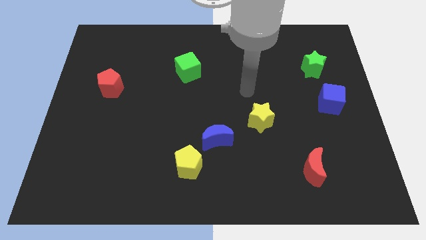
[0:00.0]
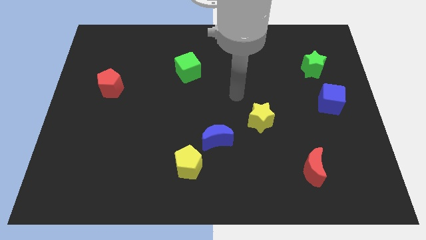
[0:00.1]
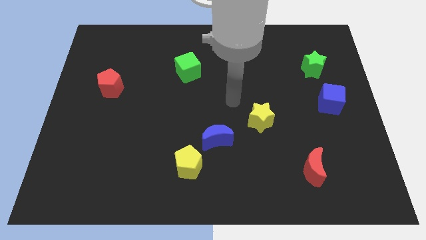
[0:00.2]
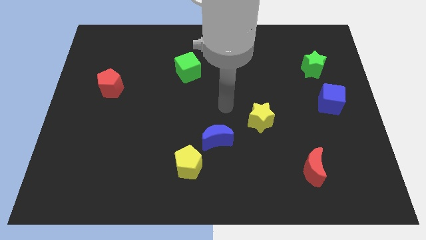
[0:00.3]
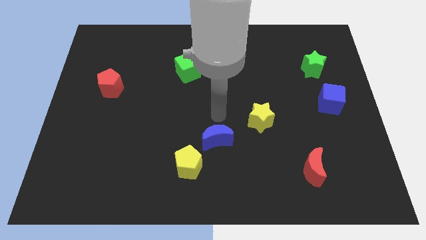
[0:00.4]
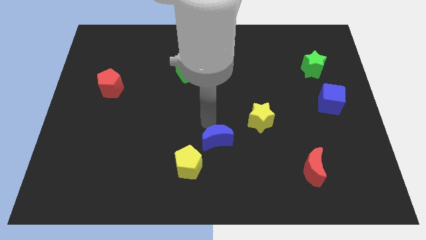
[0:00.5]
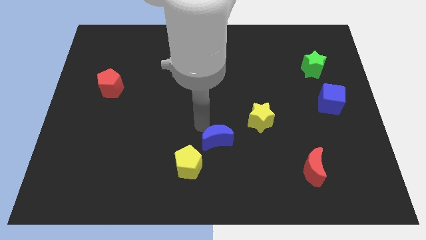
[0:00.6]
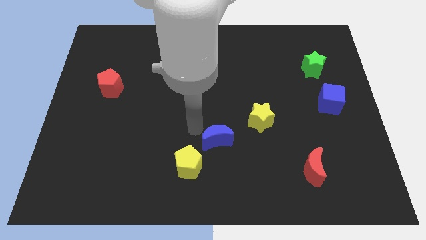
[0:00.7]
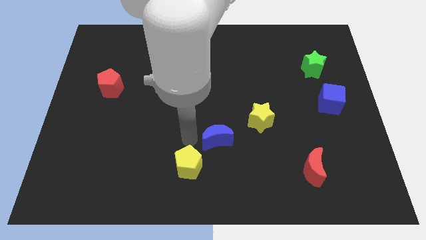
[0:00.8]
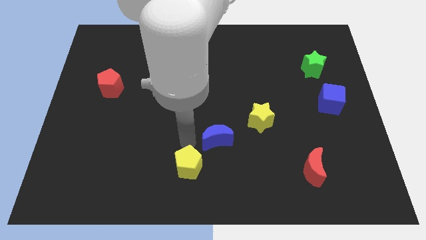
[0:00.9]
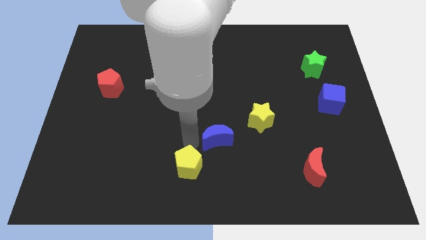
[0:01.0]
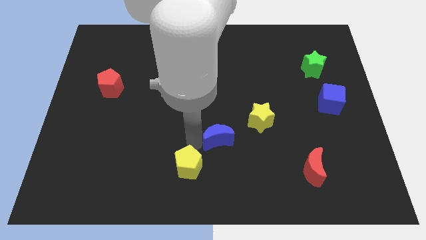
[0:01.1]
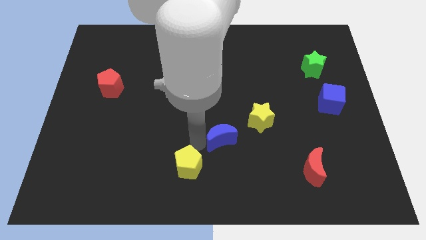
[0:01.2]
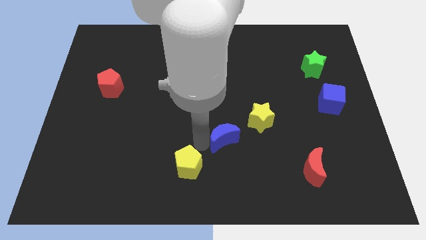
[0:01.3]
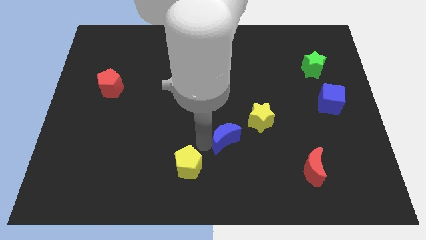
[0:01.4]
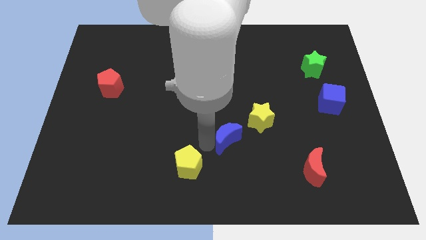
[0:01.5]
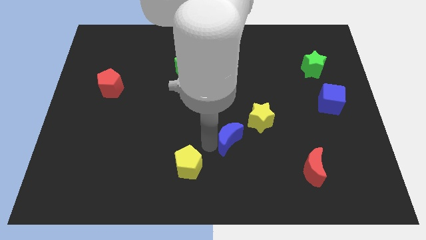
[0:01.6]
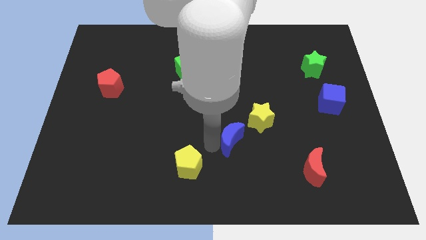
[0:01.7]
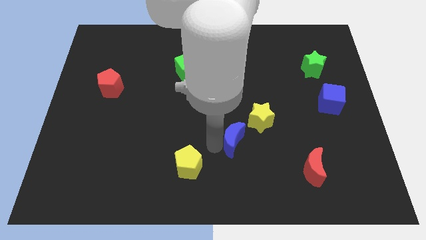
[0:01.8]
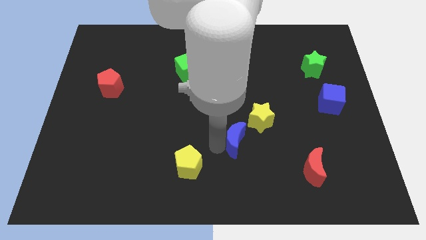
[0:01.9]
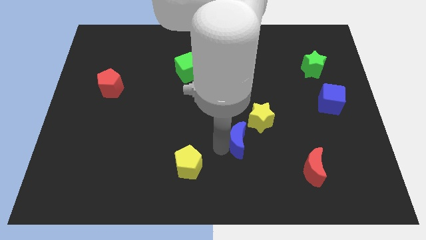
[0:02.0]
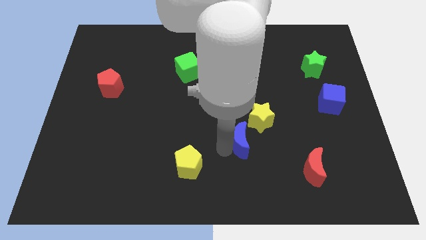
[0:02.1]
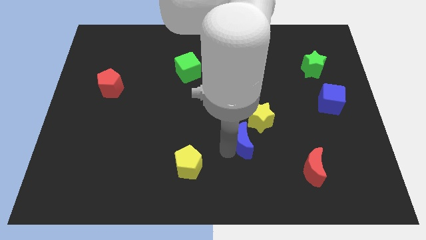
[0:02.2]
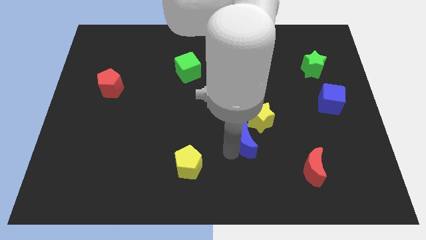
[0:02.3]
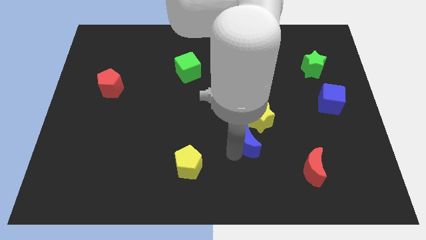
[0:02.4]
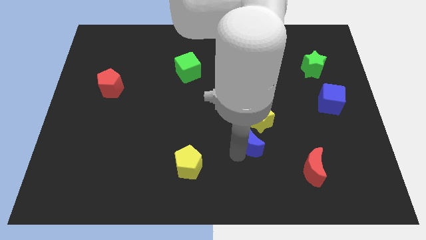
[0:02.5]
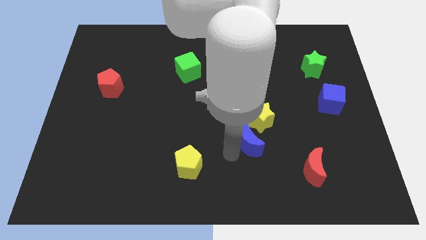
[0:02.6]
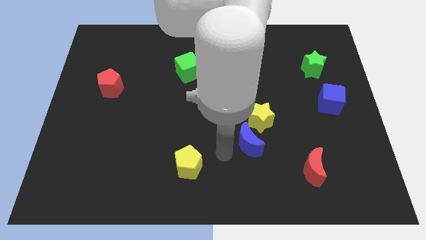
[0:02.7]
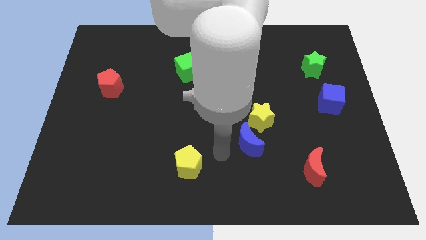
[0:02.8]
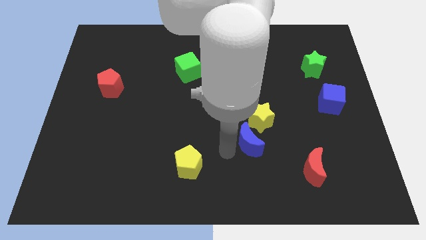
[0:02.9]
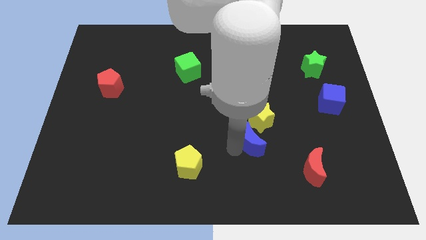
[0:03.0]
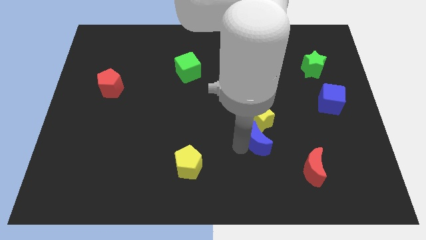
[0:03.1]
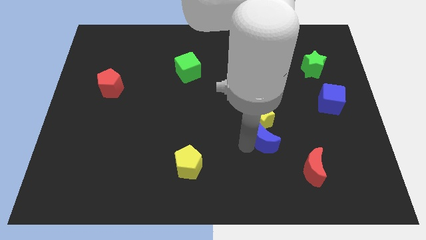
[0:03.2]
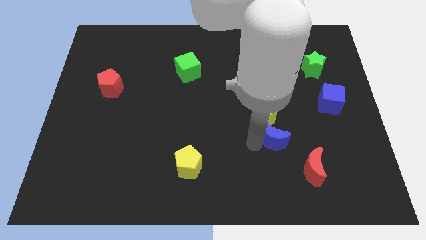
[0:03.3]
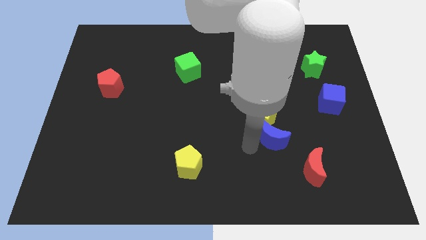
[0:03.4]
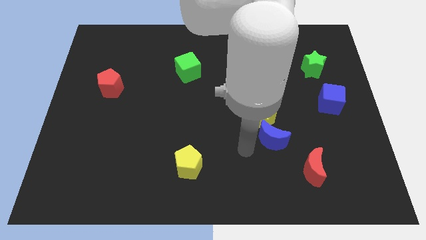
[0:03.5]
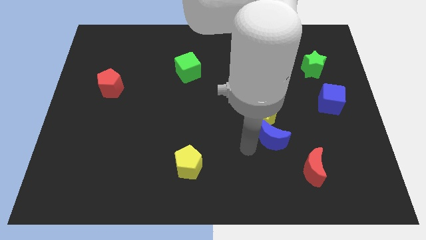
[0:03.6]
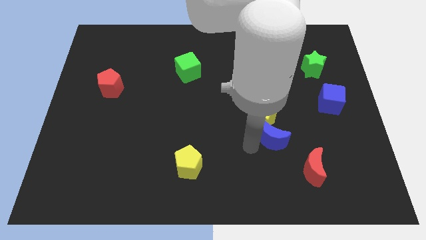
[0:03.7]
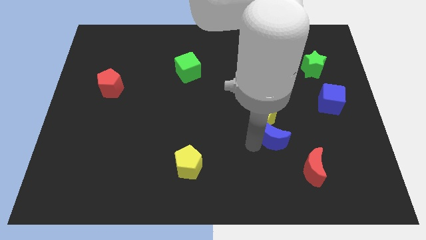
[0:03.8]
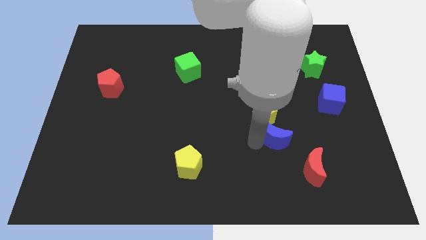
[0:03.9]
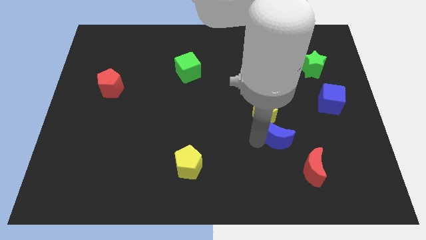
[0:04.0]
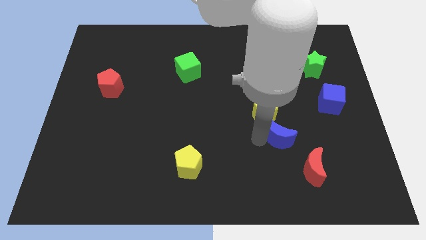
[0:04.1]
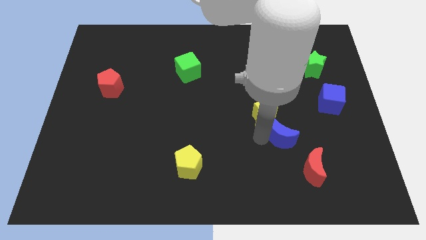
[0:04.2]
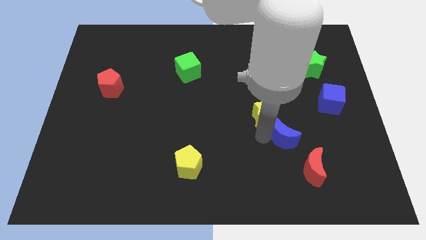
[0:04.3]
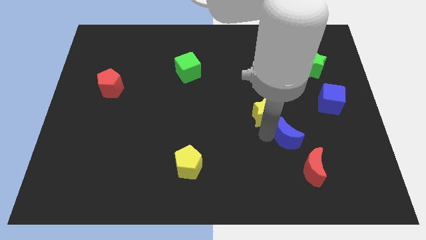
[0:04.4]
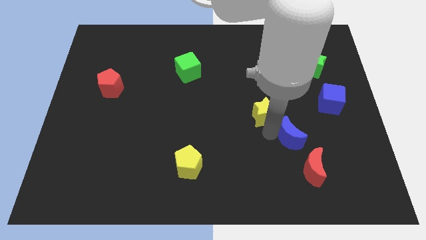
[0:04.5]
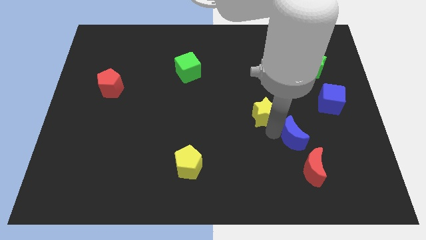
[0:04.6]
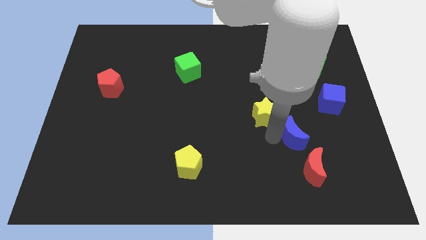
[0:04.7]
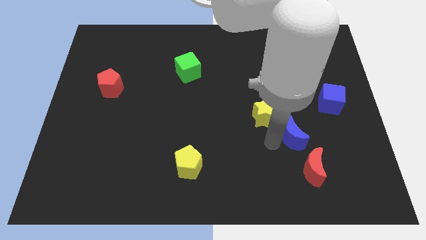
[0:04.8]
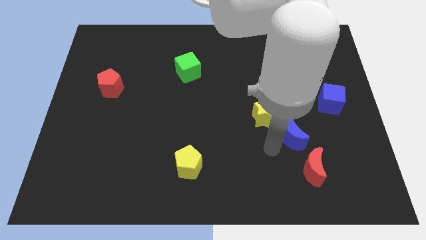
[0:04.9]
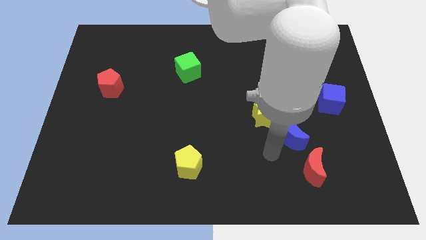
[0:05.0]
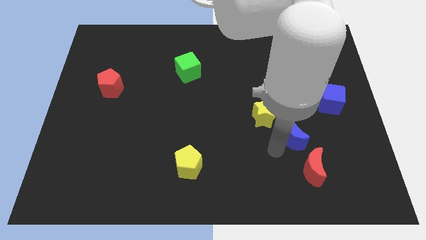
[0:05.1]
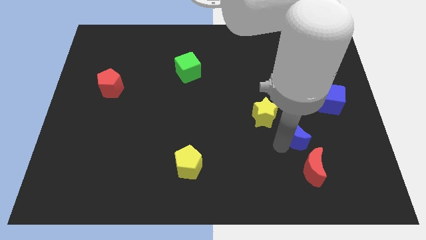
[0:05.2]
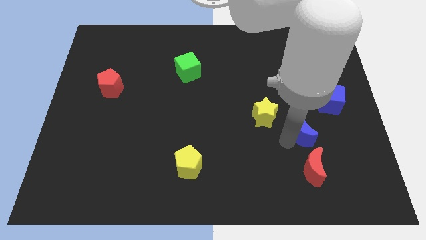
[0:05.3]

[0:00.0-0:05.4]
slide the blue moon to the bottom left side of the blue cube

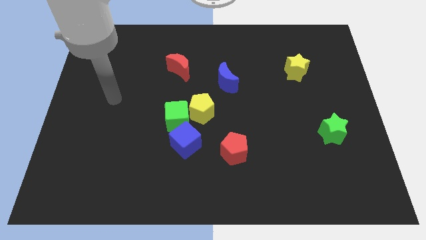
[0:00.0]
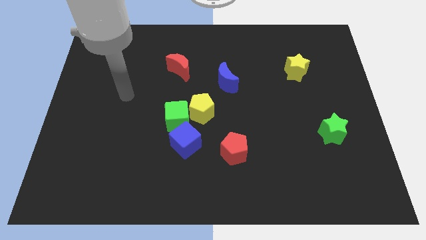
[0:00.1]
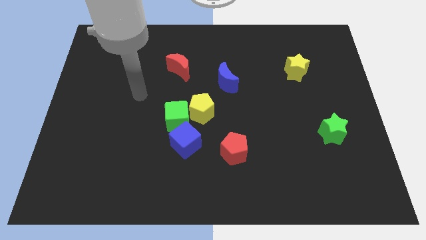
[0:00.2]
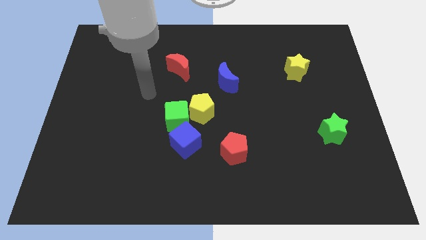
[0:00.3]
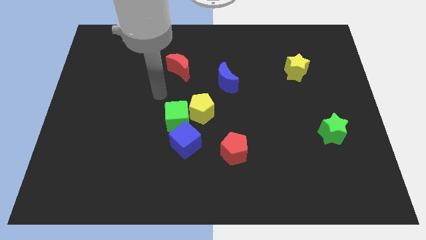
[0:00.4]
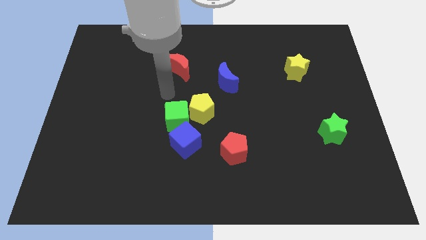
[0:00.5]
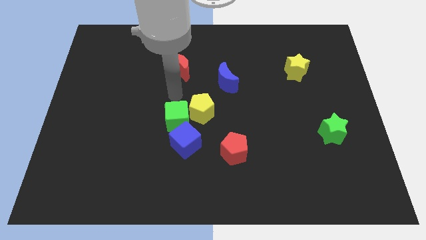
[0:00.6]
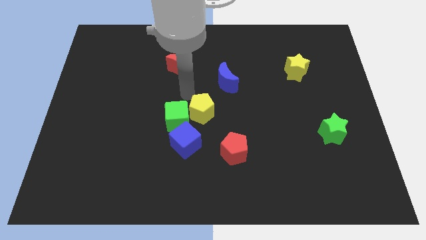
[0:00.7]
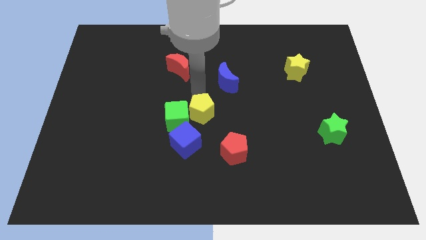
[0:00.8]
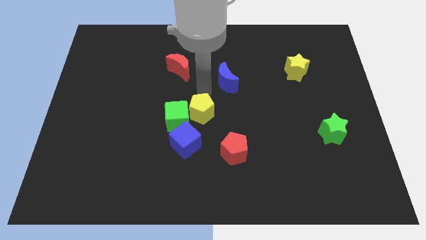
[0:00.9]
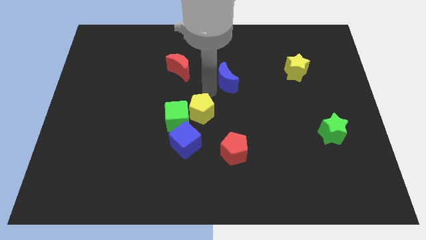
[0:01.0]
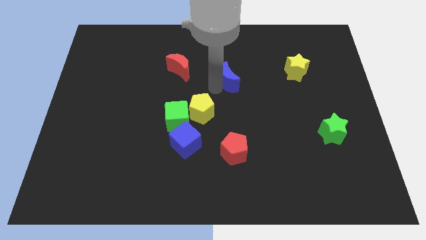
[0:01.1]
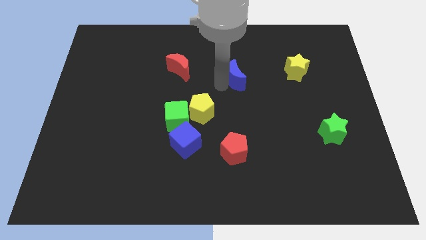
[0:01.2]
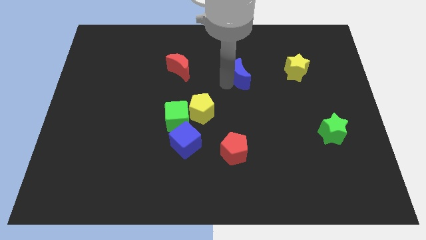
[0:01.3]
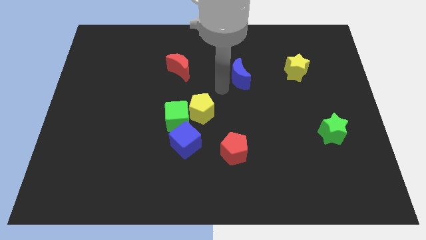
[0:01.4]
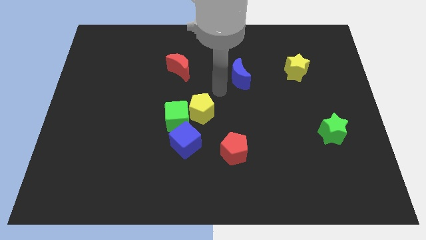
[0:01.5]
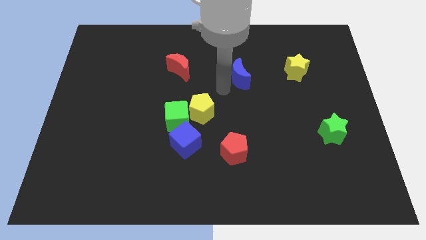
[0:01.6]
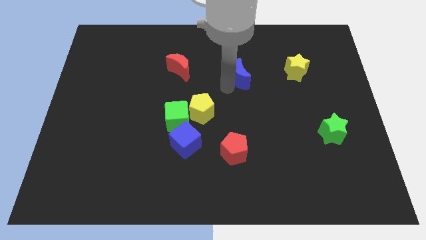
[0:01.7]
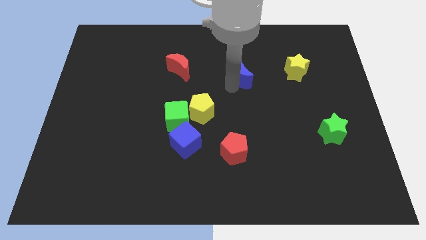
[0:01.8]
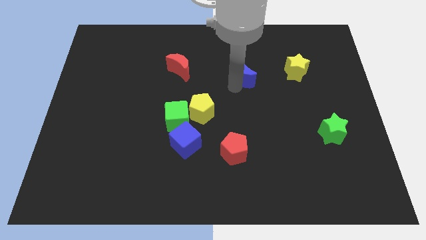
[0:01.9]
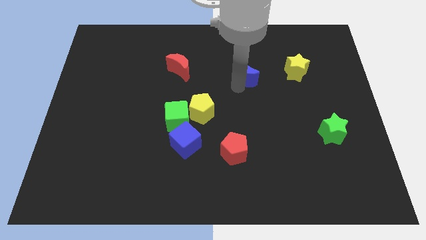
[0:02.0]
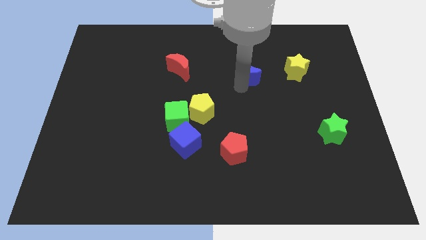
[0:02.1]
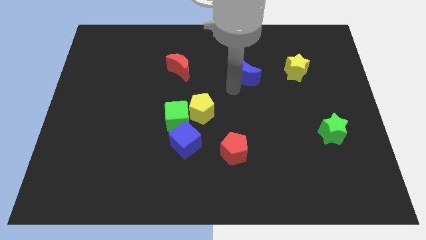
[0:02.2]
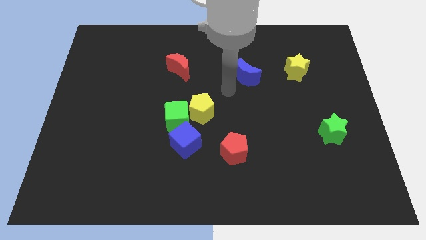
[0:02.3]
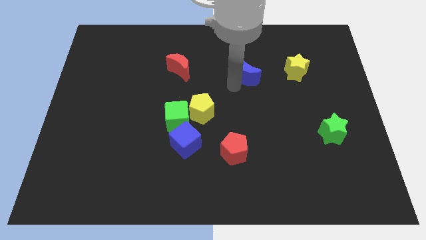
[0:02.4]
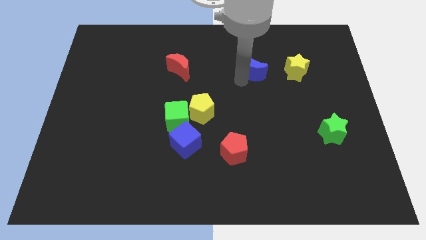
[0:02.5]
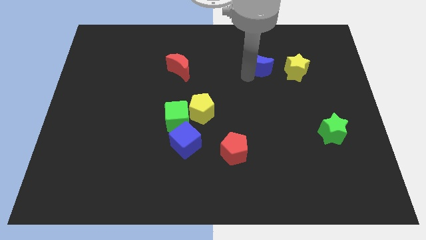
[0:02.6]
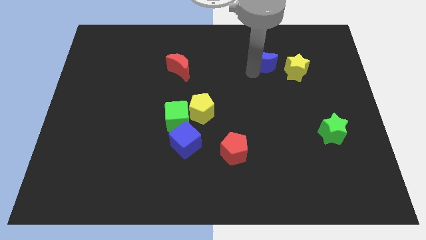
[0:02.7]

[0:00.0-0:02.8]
push the blue moon to the top left of the yellow star
